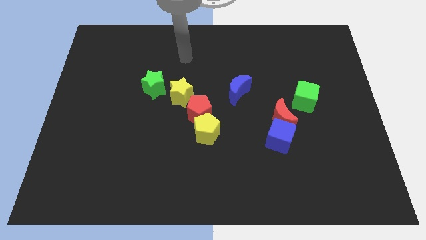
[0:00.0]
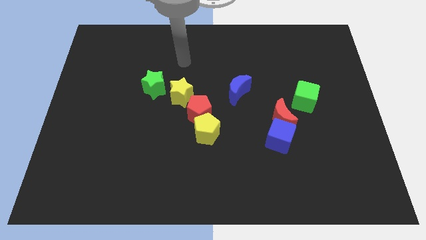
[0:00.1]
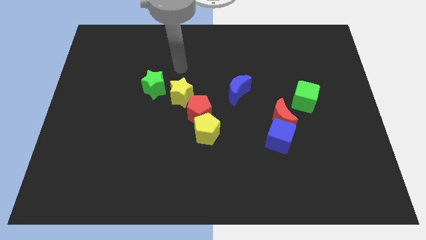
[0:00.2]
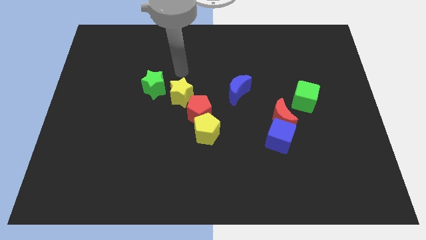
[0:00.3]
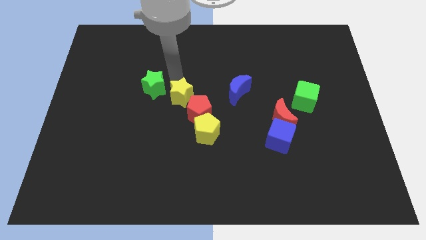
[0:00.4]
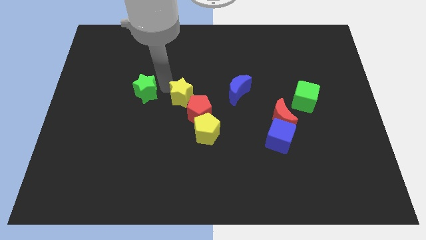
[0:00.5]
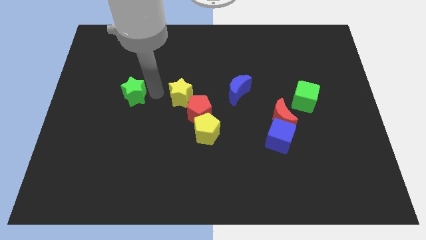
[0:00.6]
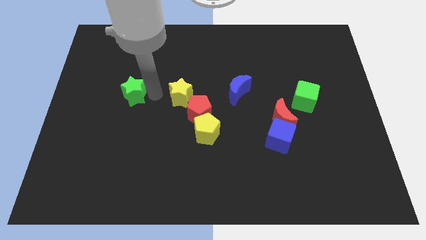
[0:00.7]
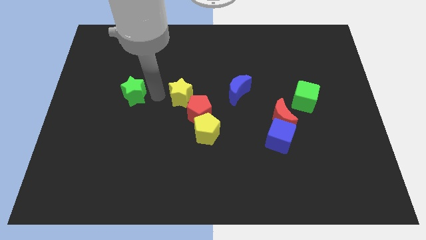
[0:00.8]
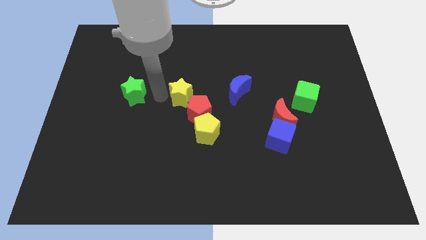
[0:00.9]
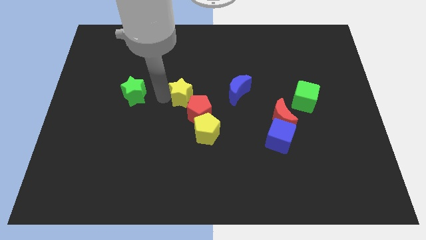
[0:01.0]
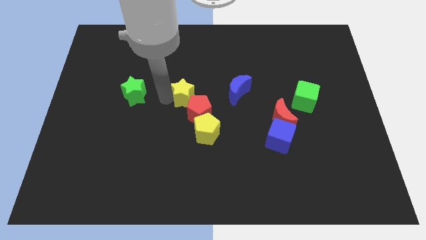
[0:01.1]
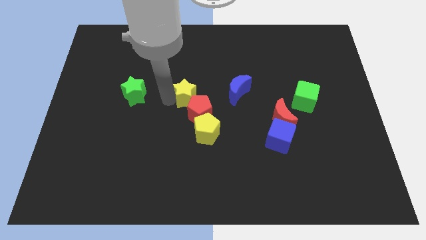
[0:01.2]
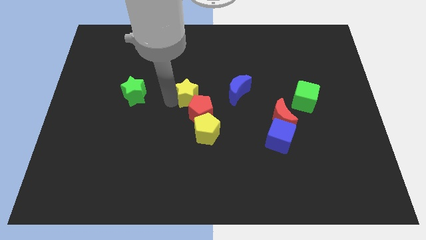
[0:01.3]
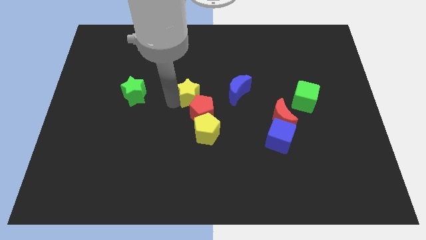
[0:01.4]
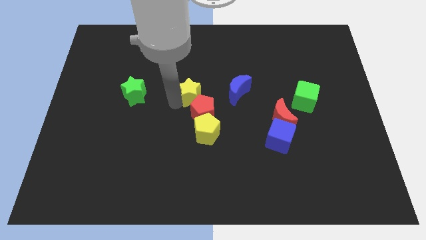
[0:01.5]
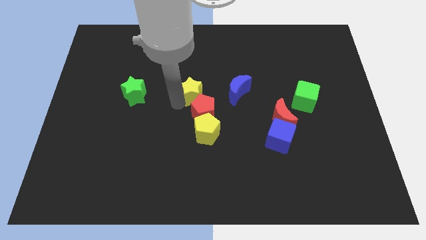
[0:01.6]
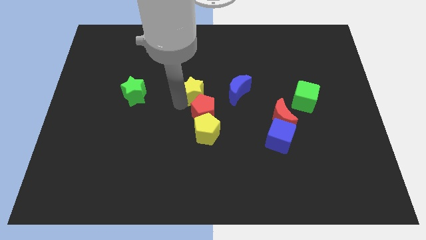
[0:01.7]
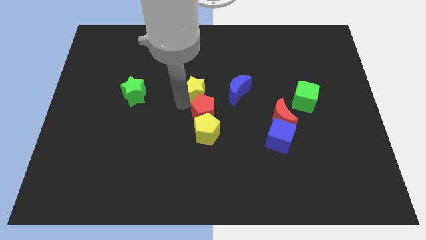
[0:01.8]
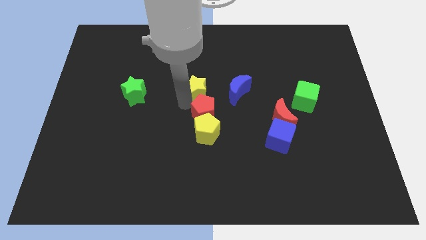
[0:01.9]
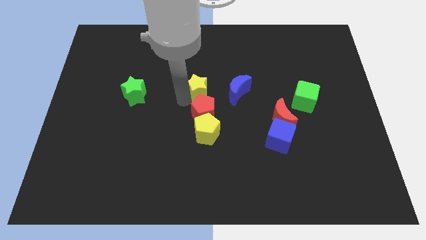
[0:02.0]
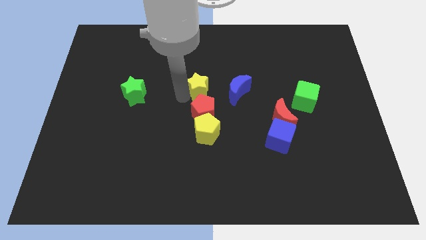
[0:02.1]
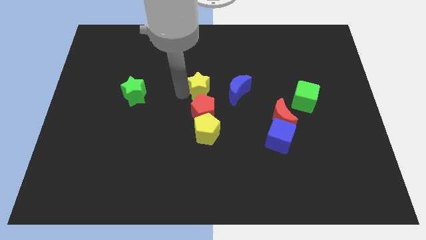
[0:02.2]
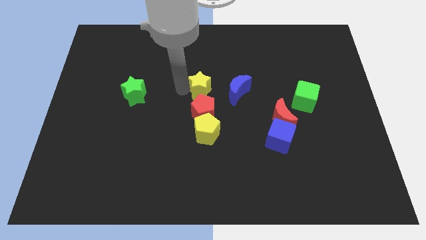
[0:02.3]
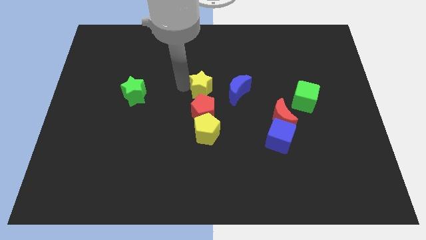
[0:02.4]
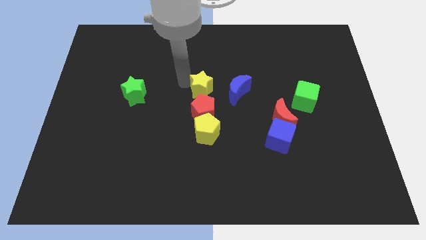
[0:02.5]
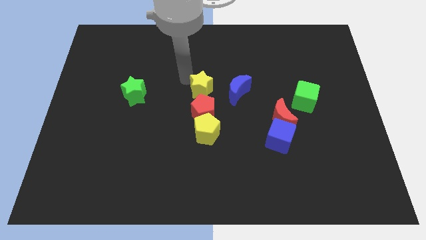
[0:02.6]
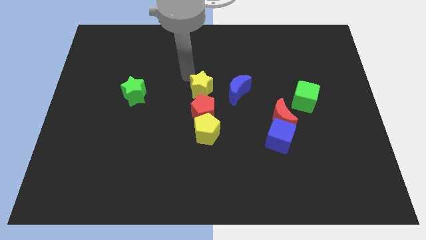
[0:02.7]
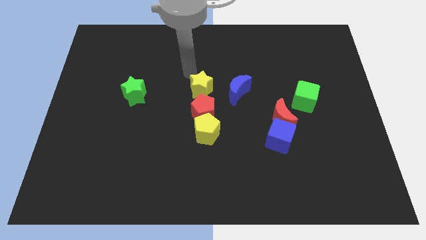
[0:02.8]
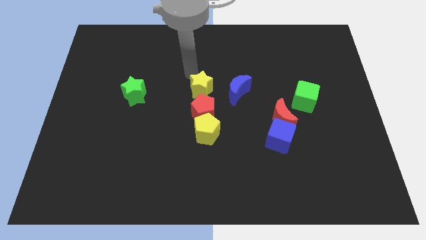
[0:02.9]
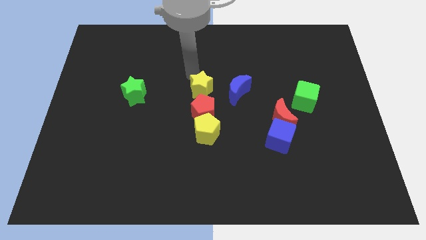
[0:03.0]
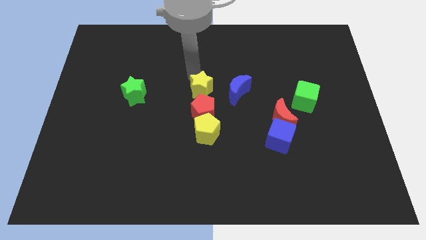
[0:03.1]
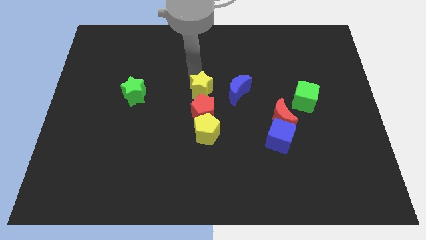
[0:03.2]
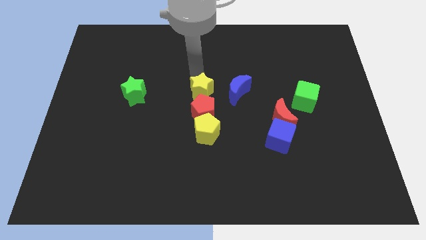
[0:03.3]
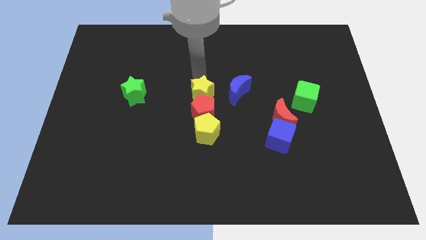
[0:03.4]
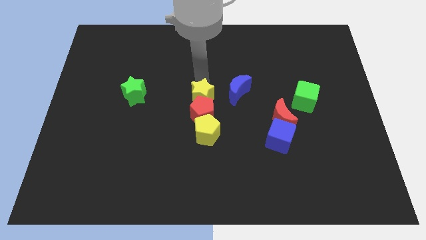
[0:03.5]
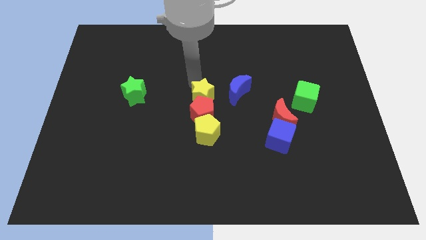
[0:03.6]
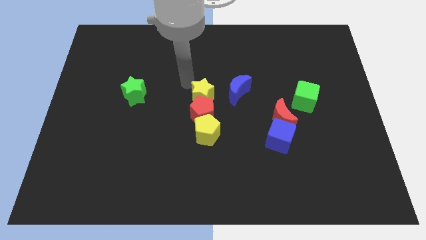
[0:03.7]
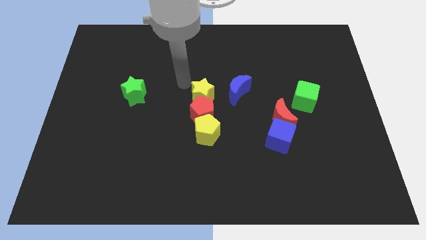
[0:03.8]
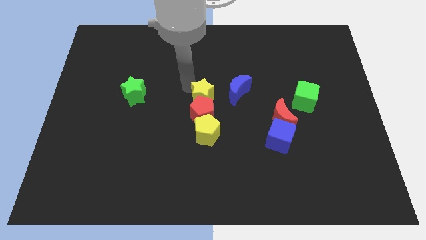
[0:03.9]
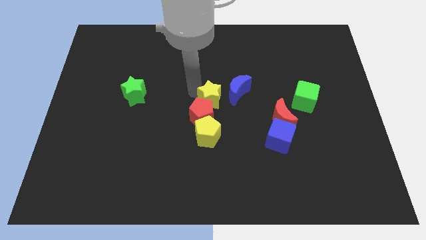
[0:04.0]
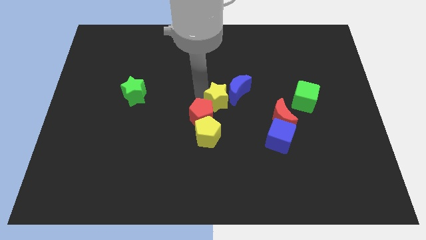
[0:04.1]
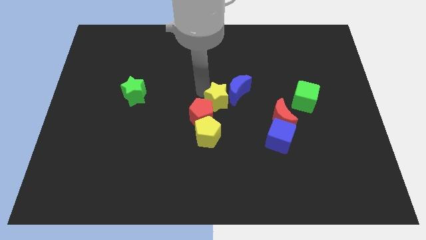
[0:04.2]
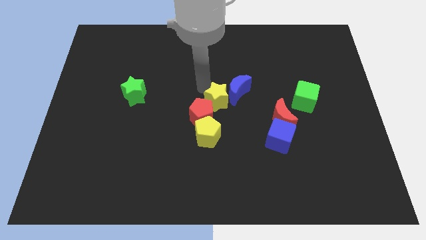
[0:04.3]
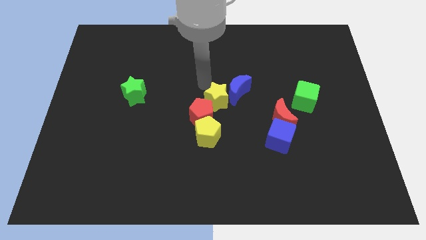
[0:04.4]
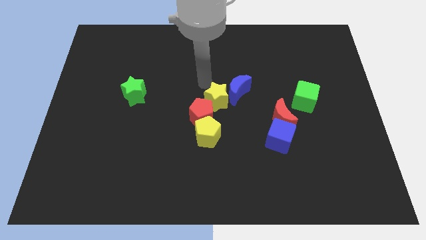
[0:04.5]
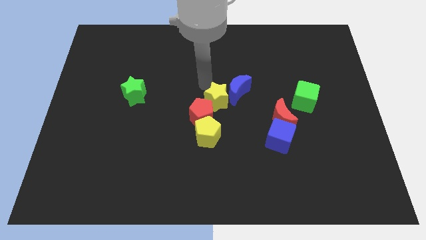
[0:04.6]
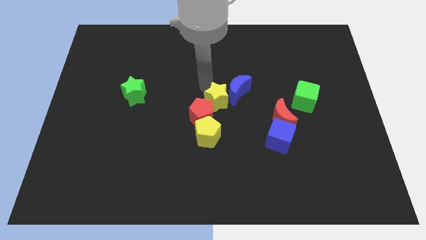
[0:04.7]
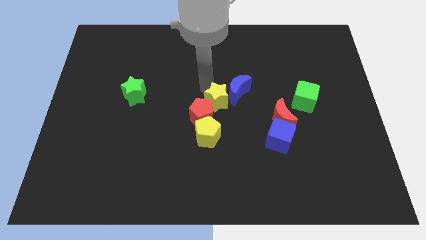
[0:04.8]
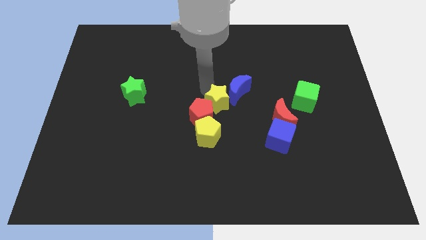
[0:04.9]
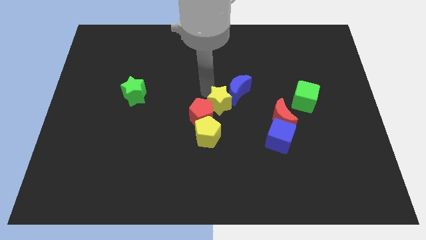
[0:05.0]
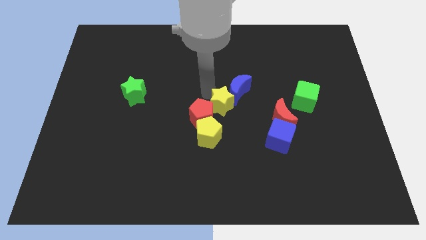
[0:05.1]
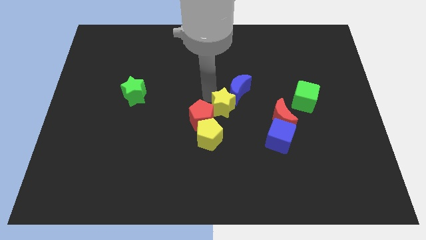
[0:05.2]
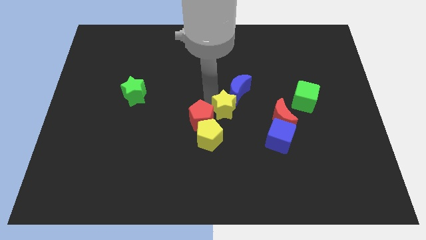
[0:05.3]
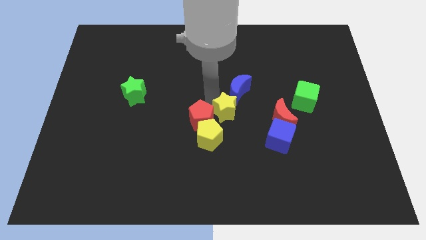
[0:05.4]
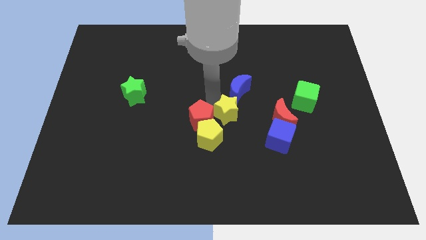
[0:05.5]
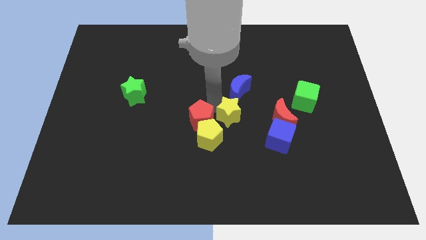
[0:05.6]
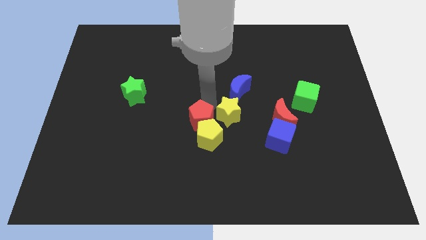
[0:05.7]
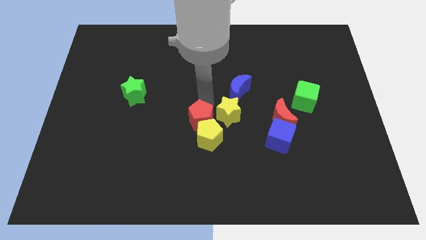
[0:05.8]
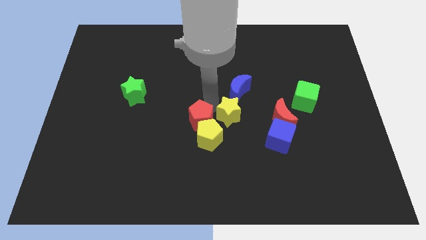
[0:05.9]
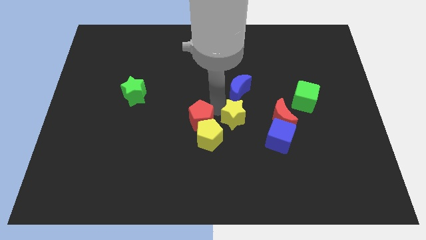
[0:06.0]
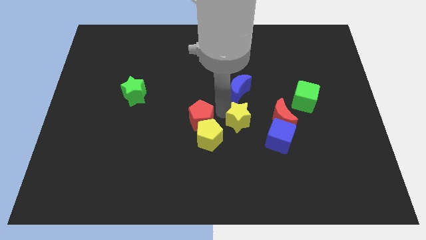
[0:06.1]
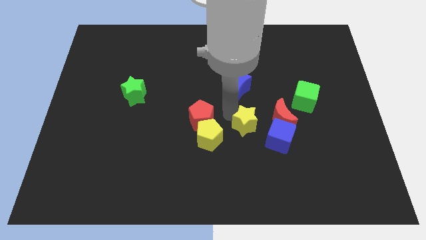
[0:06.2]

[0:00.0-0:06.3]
put the yellow star to the bottom left of the red moon
